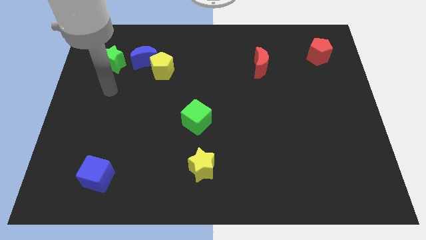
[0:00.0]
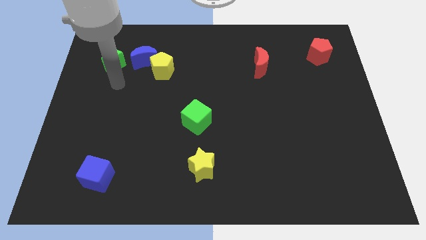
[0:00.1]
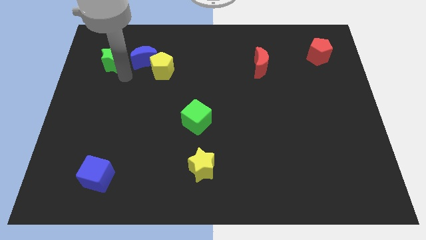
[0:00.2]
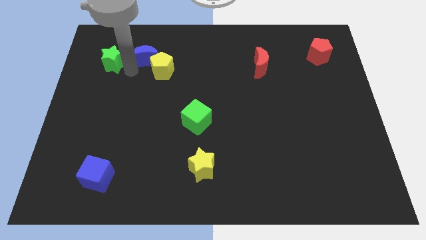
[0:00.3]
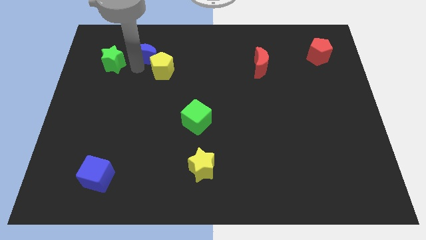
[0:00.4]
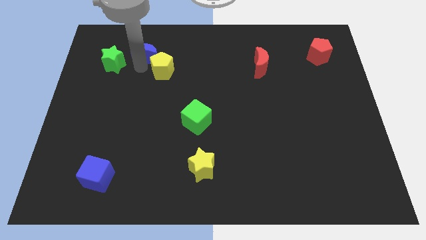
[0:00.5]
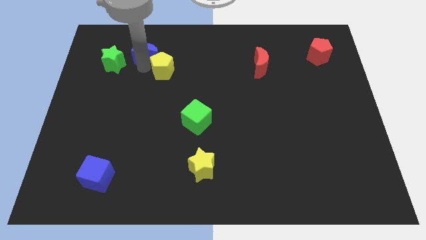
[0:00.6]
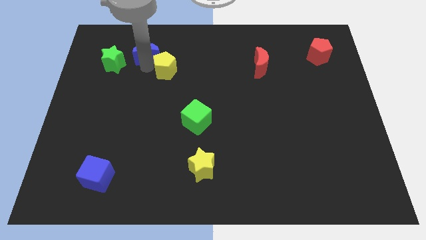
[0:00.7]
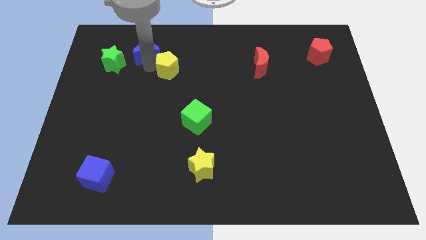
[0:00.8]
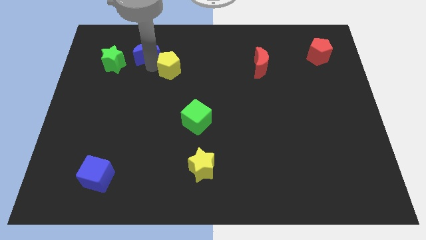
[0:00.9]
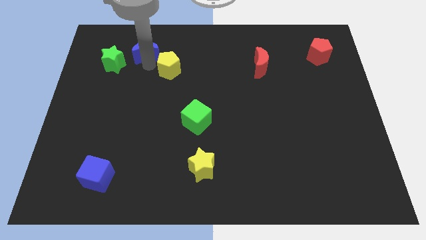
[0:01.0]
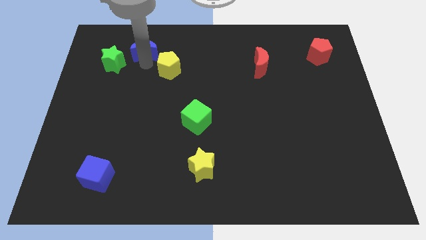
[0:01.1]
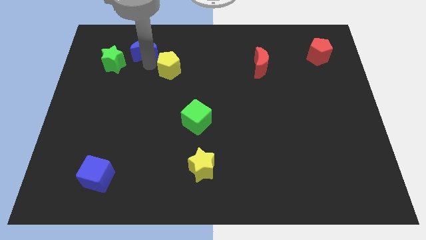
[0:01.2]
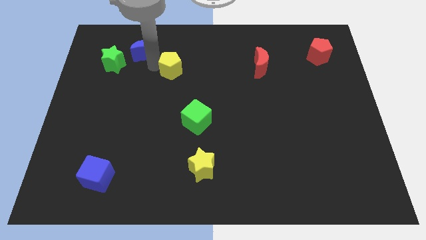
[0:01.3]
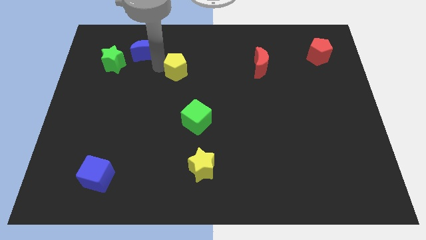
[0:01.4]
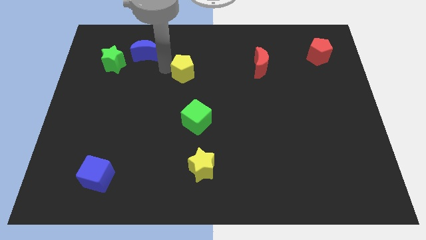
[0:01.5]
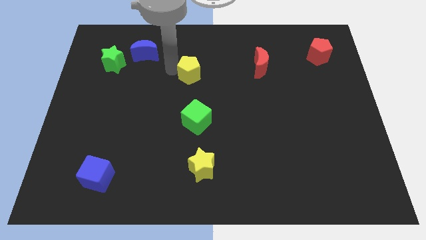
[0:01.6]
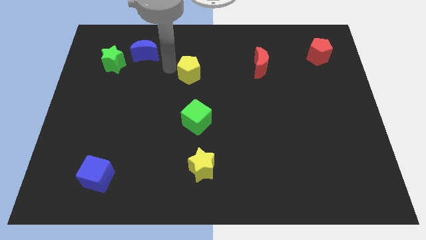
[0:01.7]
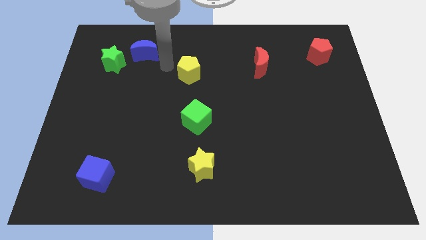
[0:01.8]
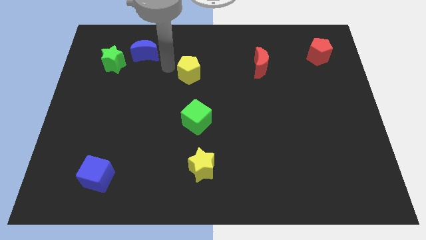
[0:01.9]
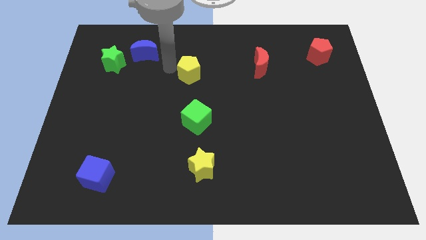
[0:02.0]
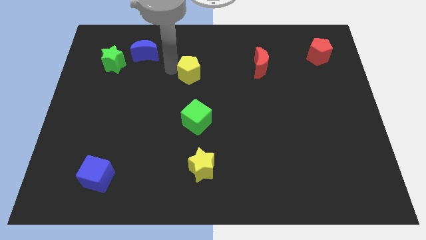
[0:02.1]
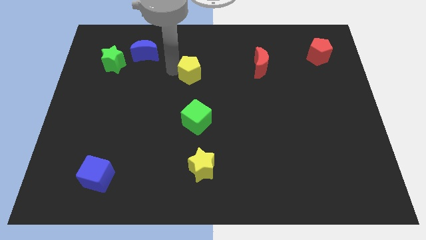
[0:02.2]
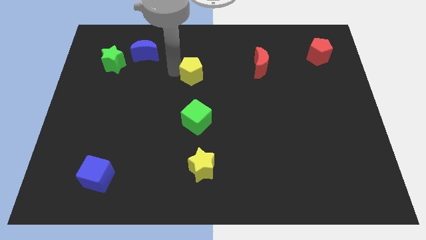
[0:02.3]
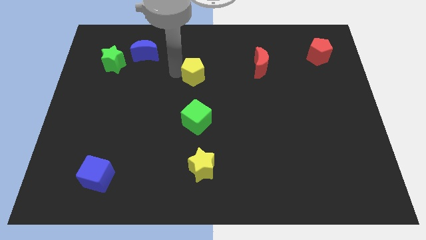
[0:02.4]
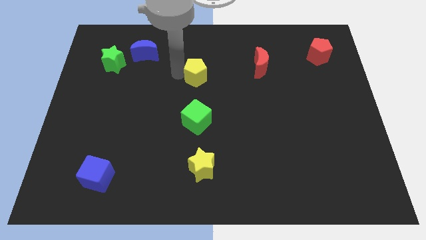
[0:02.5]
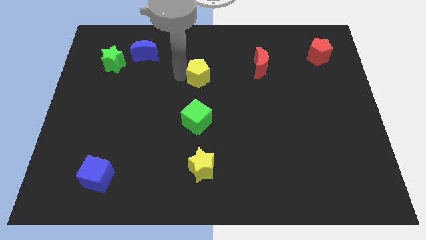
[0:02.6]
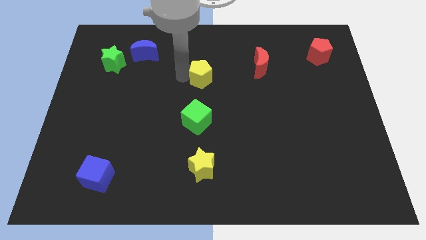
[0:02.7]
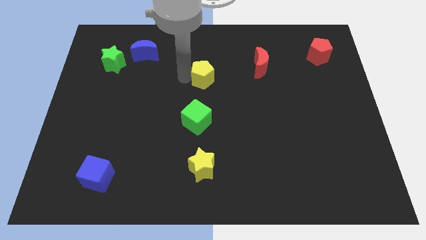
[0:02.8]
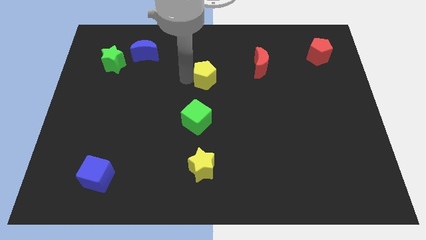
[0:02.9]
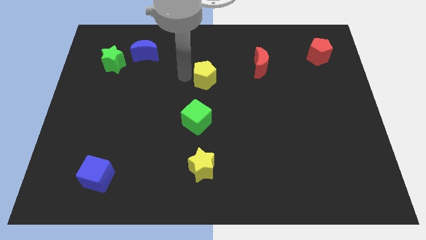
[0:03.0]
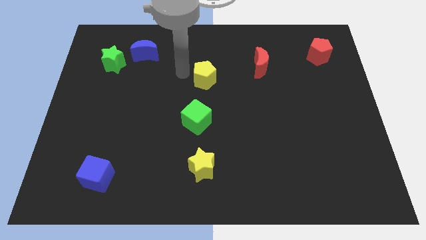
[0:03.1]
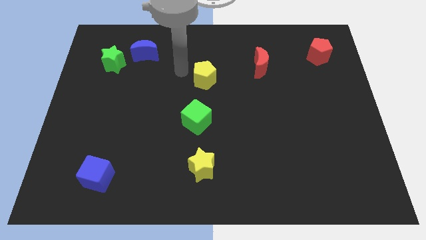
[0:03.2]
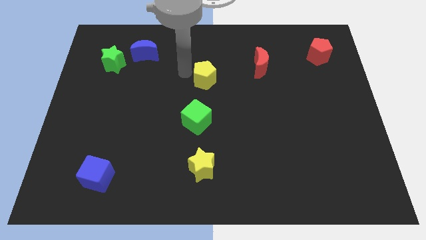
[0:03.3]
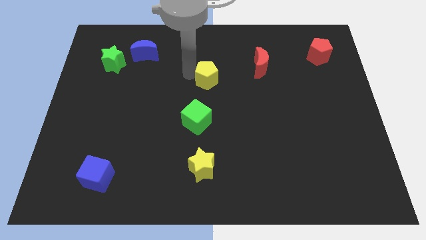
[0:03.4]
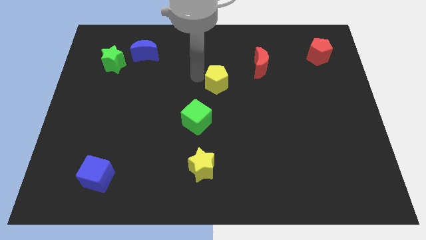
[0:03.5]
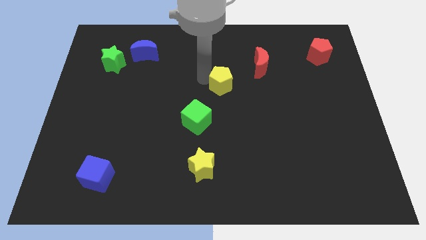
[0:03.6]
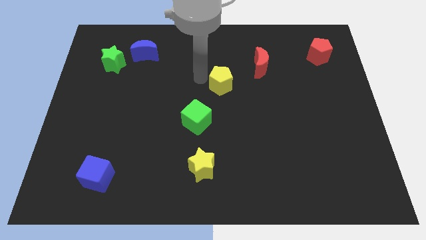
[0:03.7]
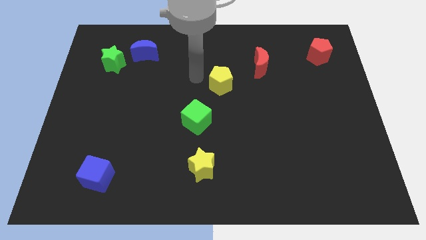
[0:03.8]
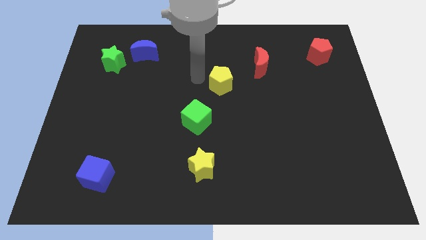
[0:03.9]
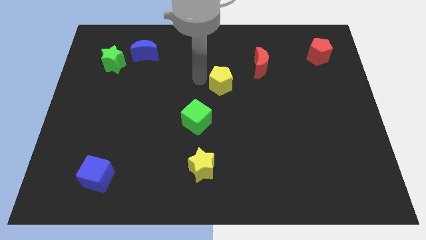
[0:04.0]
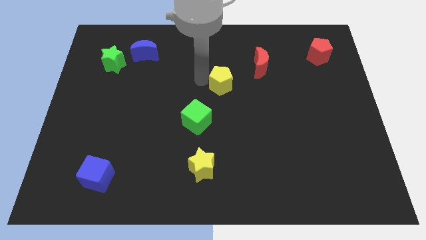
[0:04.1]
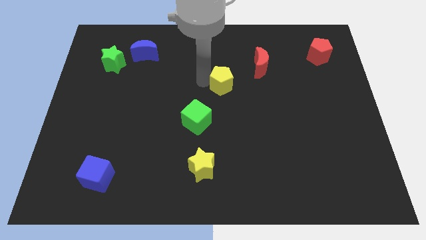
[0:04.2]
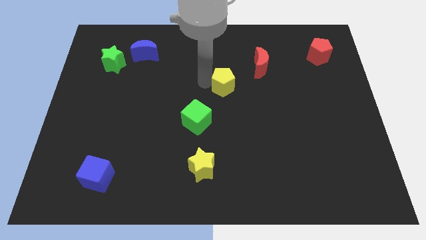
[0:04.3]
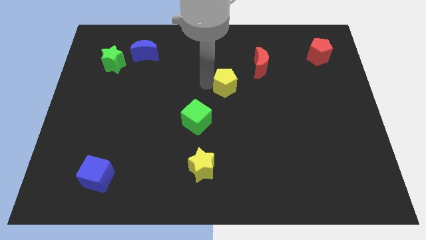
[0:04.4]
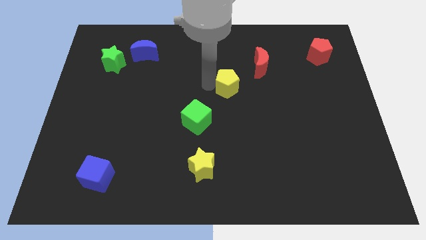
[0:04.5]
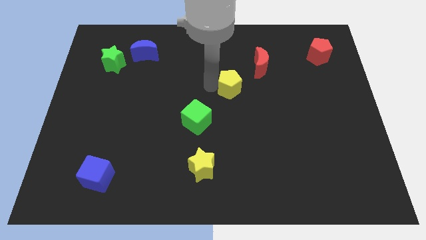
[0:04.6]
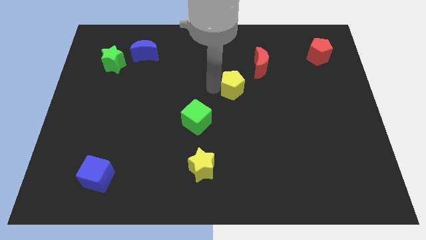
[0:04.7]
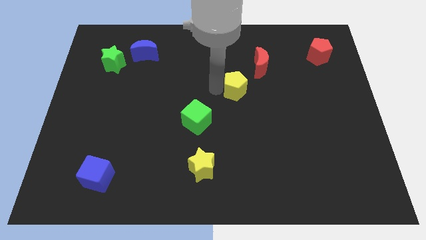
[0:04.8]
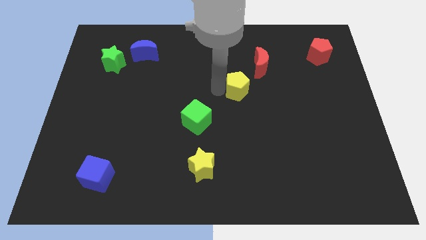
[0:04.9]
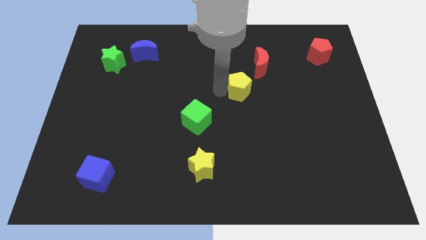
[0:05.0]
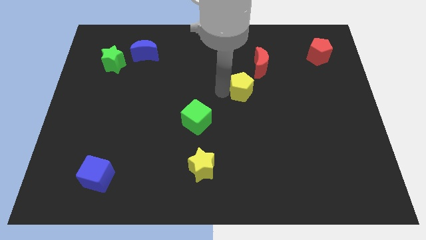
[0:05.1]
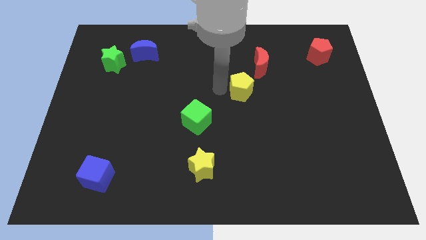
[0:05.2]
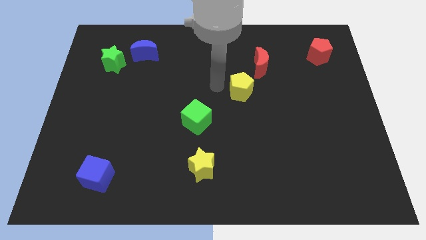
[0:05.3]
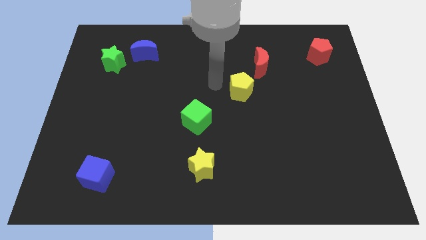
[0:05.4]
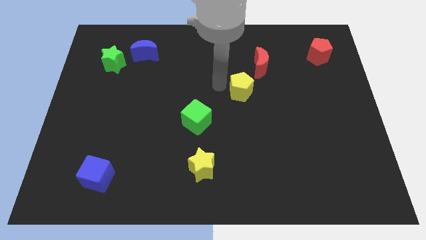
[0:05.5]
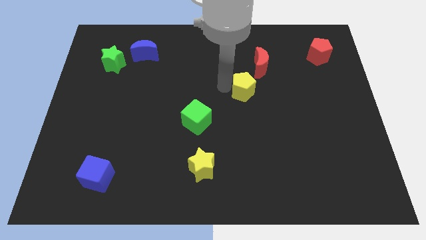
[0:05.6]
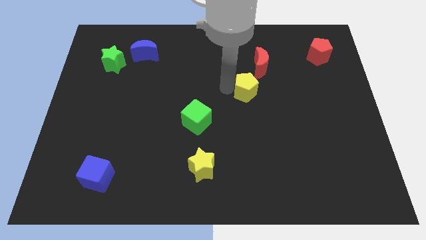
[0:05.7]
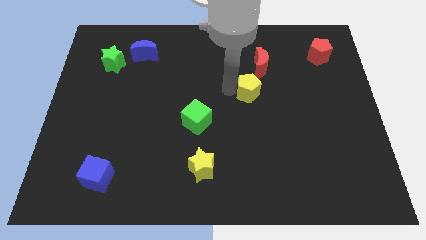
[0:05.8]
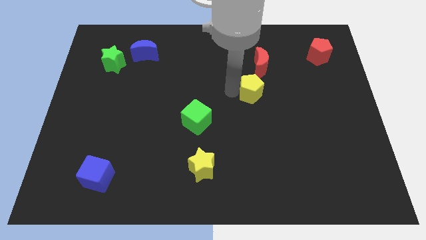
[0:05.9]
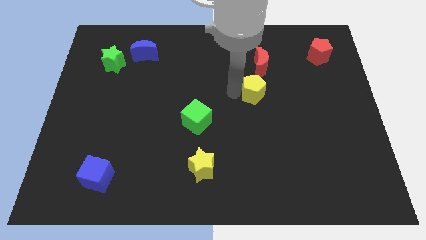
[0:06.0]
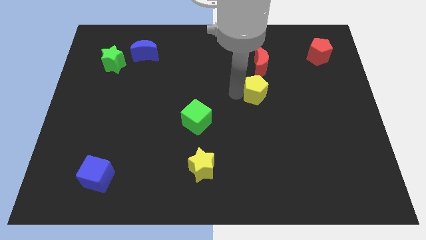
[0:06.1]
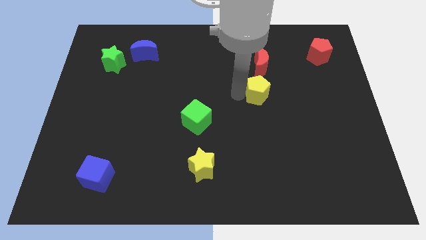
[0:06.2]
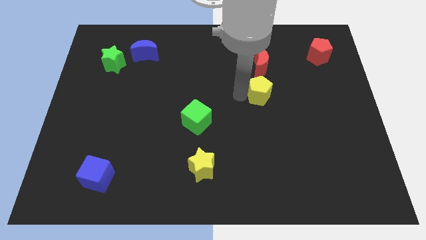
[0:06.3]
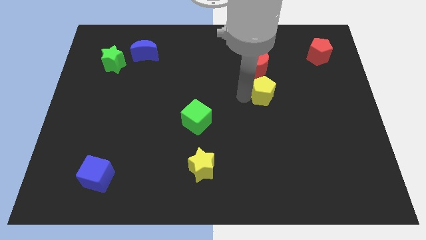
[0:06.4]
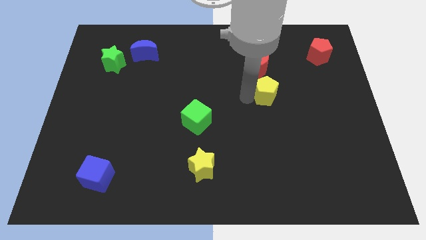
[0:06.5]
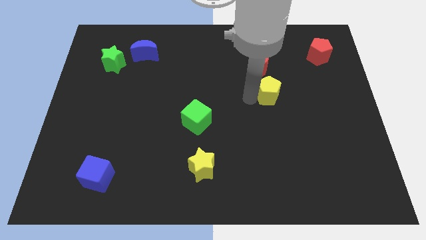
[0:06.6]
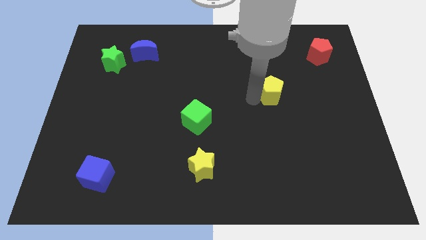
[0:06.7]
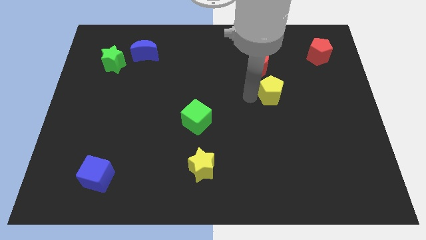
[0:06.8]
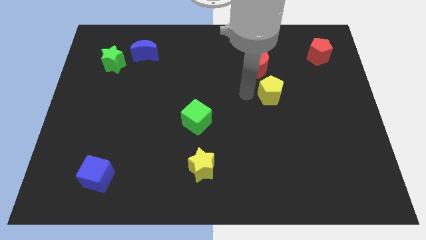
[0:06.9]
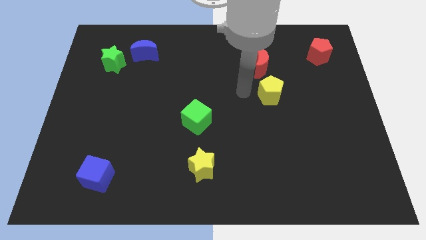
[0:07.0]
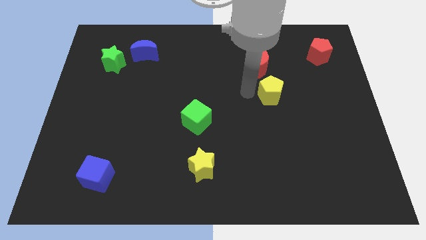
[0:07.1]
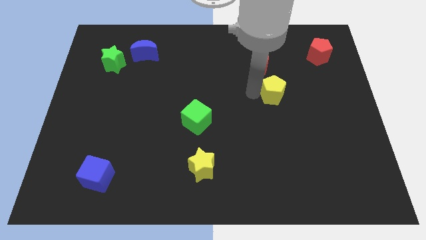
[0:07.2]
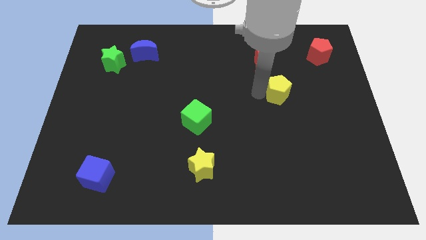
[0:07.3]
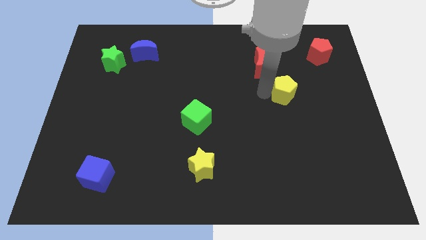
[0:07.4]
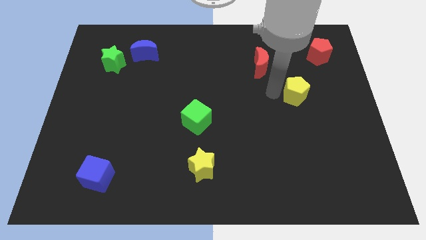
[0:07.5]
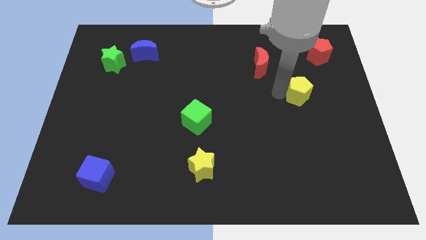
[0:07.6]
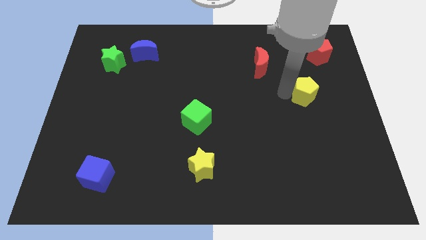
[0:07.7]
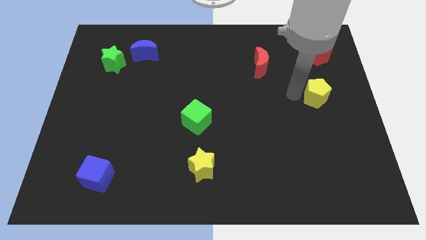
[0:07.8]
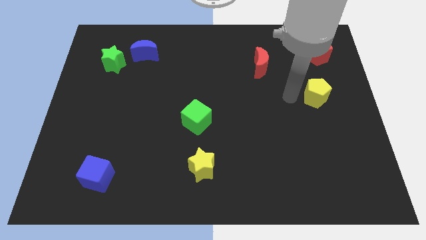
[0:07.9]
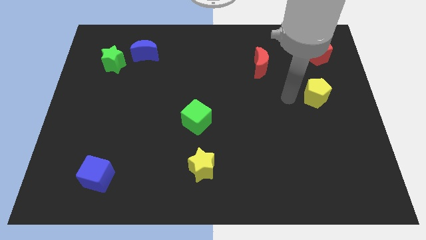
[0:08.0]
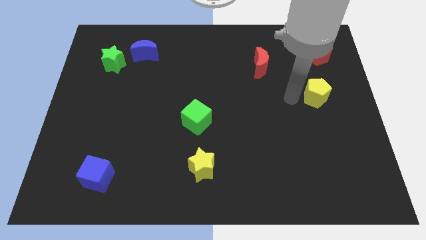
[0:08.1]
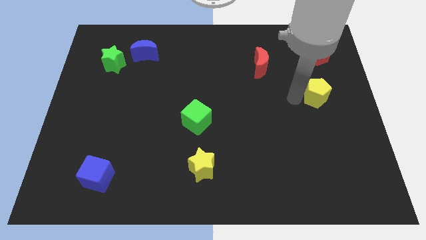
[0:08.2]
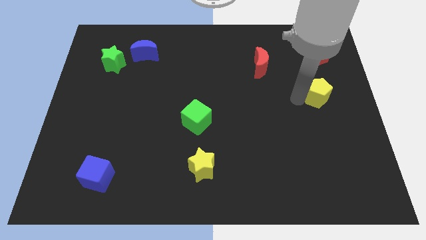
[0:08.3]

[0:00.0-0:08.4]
put the yellow pentagon to the right side of the board
